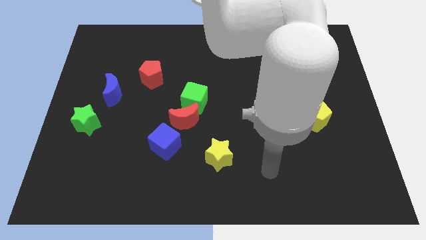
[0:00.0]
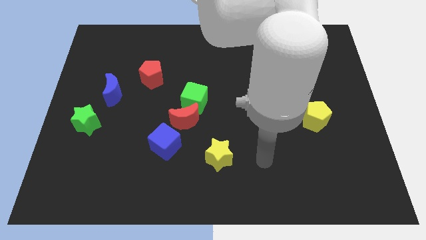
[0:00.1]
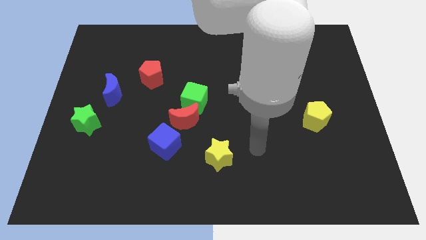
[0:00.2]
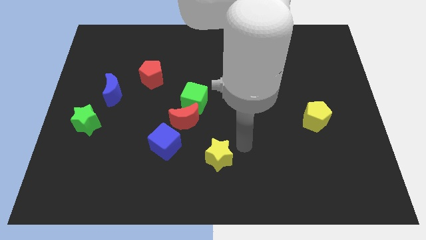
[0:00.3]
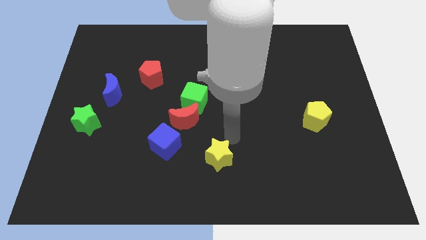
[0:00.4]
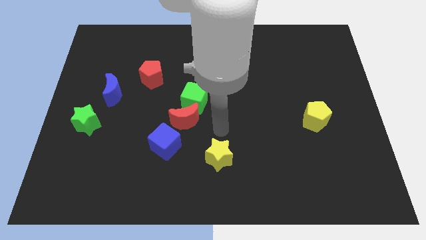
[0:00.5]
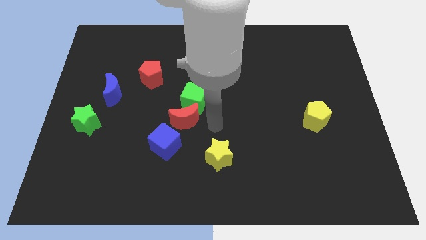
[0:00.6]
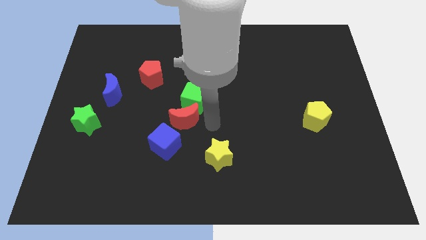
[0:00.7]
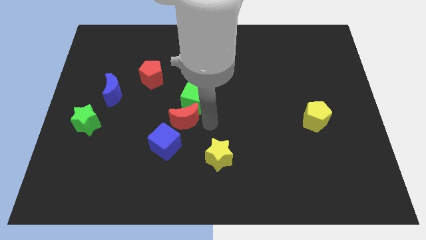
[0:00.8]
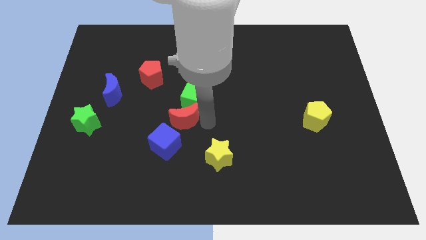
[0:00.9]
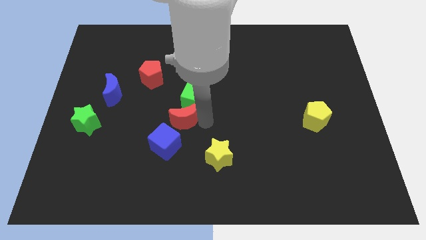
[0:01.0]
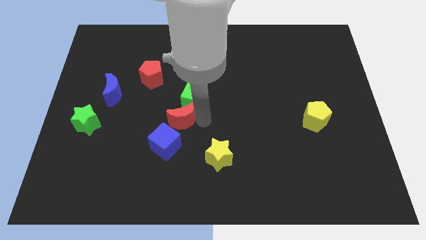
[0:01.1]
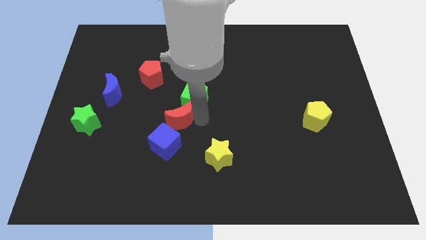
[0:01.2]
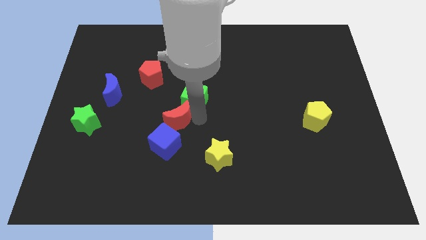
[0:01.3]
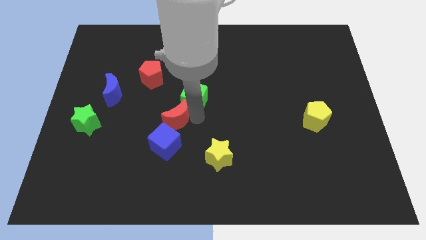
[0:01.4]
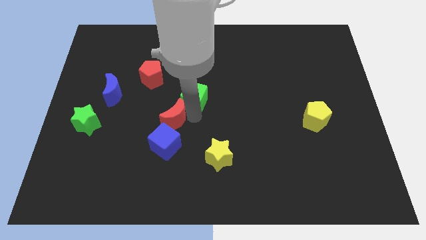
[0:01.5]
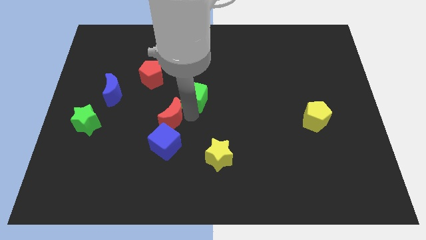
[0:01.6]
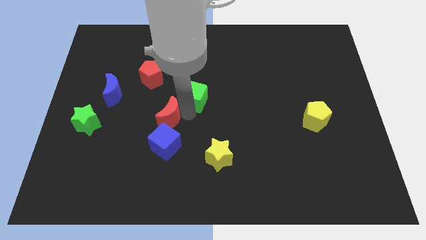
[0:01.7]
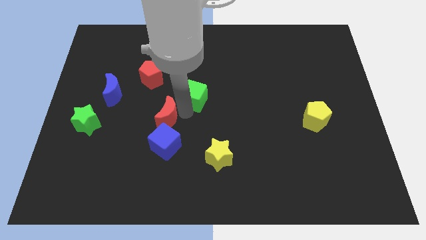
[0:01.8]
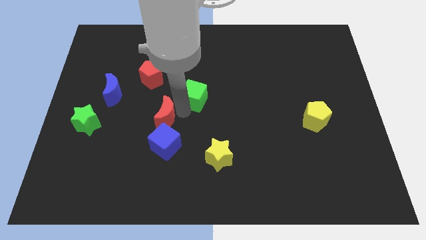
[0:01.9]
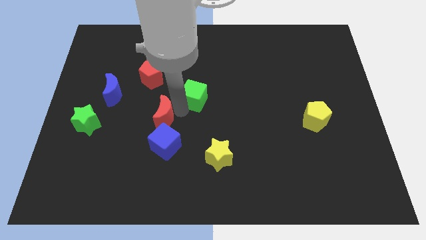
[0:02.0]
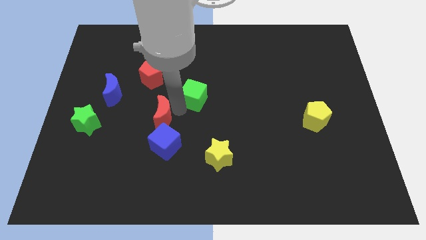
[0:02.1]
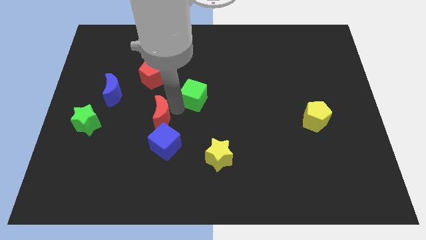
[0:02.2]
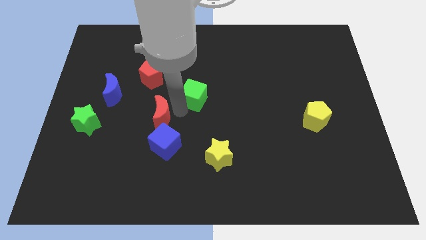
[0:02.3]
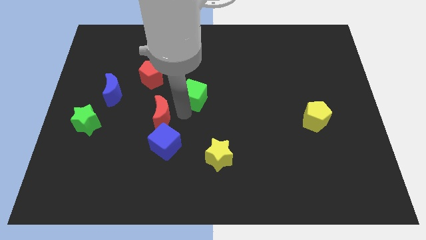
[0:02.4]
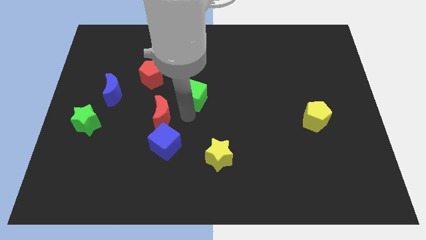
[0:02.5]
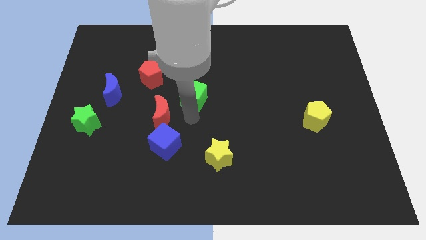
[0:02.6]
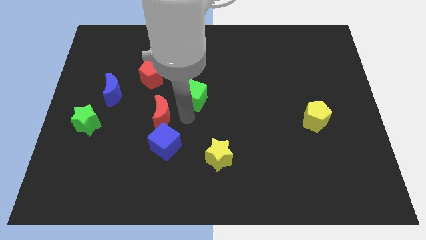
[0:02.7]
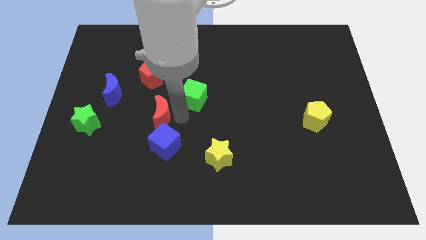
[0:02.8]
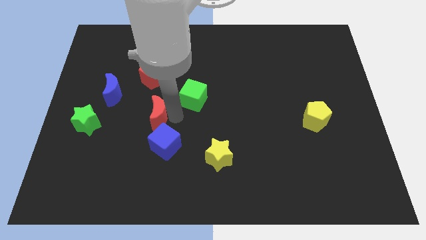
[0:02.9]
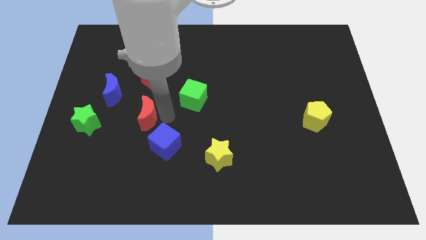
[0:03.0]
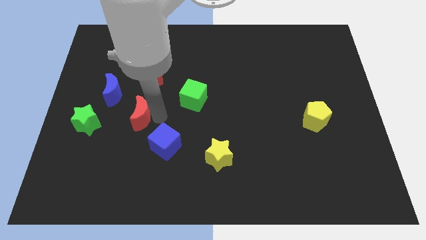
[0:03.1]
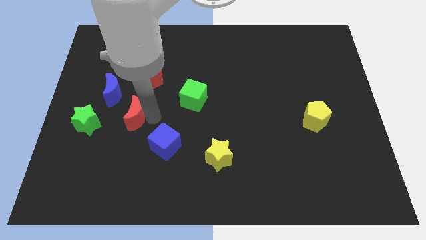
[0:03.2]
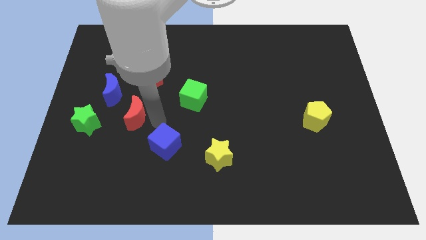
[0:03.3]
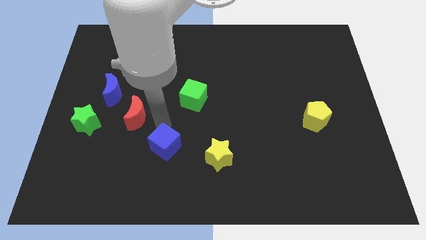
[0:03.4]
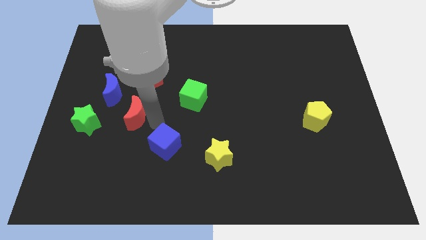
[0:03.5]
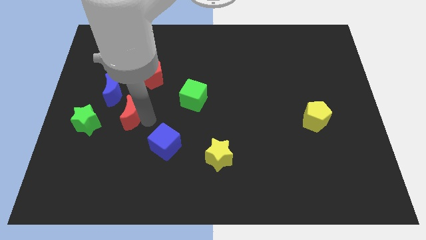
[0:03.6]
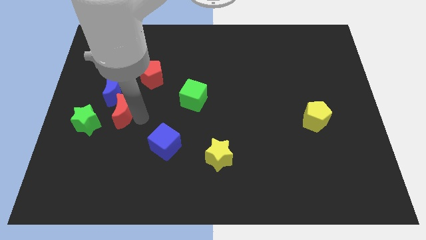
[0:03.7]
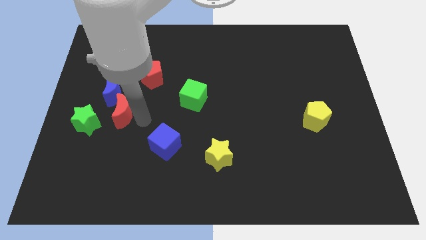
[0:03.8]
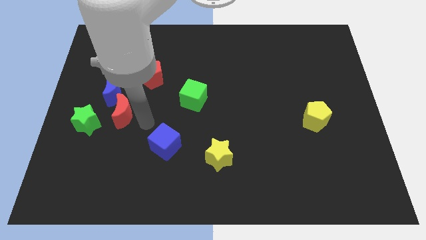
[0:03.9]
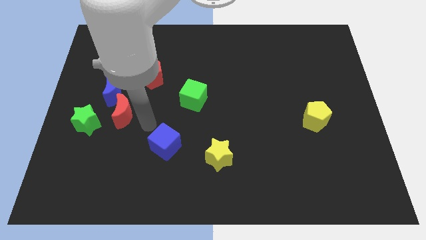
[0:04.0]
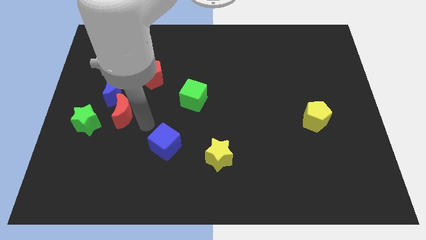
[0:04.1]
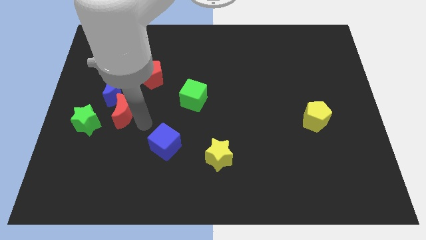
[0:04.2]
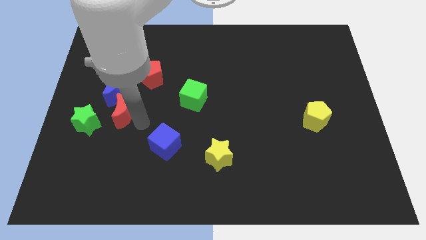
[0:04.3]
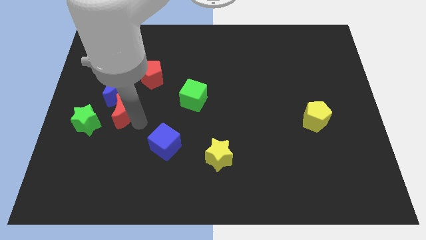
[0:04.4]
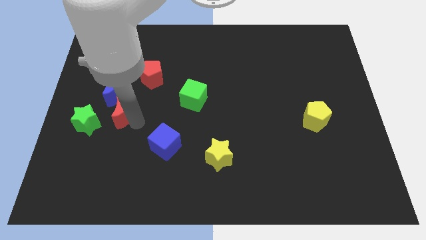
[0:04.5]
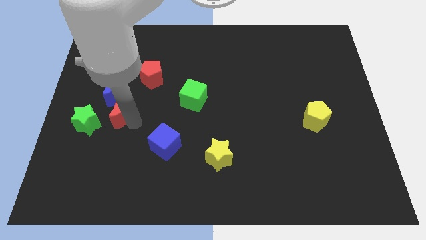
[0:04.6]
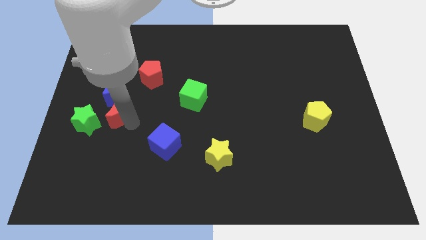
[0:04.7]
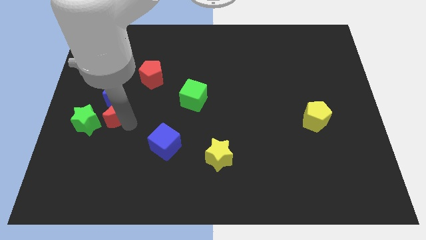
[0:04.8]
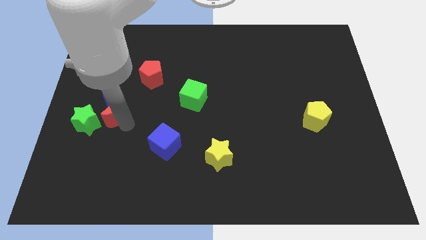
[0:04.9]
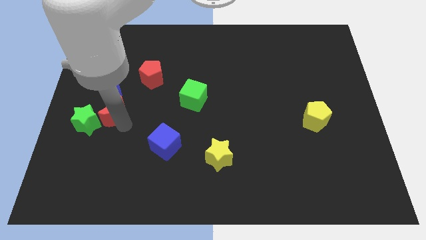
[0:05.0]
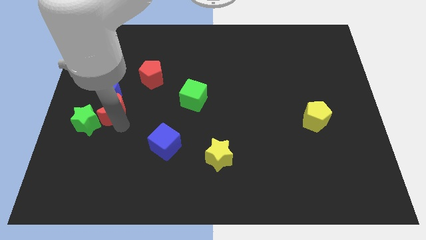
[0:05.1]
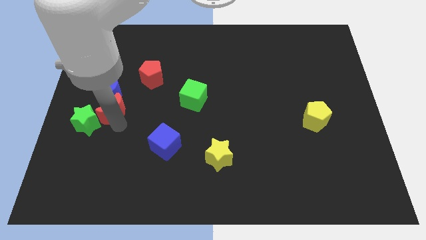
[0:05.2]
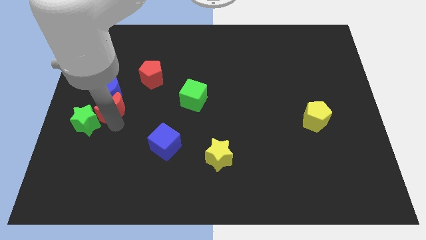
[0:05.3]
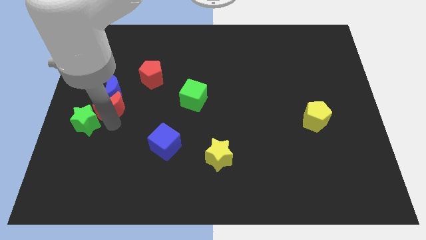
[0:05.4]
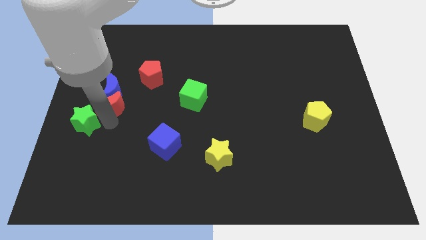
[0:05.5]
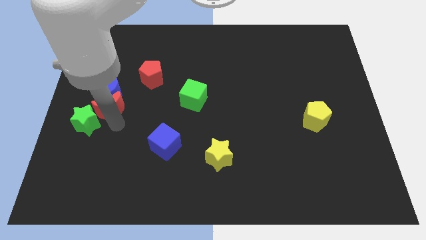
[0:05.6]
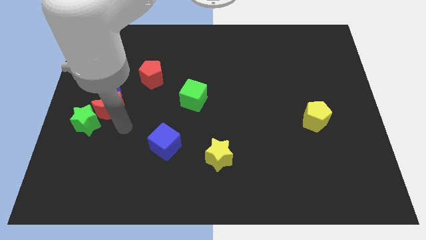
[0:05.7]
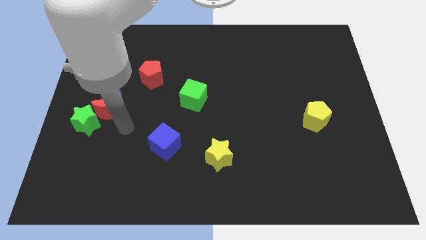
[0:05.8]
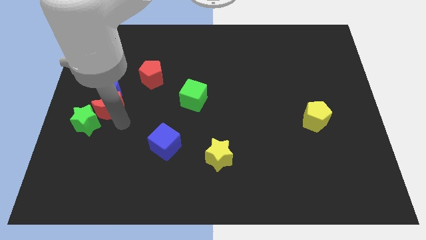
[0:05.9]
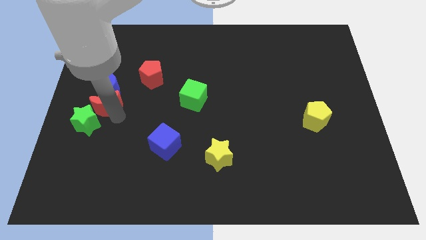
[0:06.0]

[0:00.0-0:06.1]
push the red moon to the top side of the green star

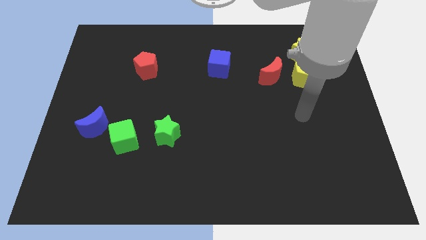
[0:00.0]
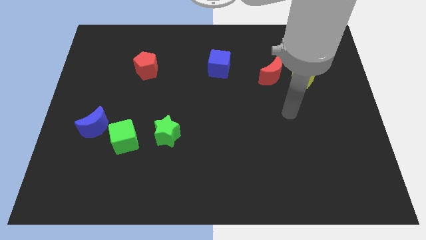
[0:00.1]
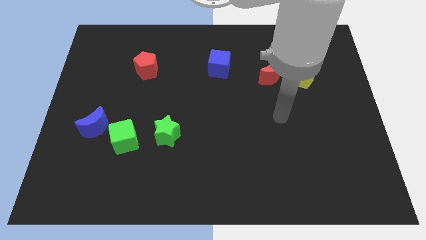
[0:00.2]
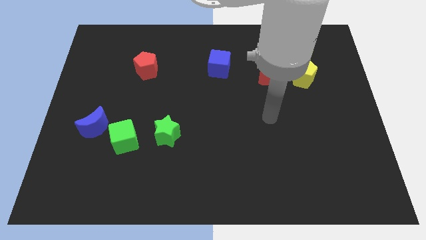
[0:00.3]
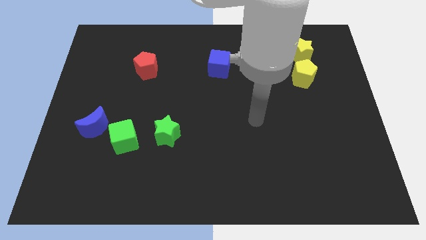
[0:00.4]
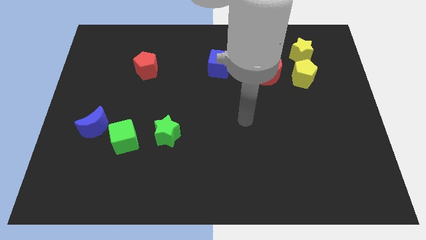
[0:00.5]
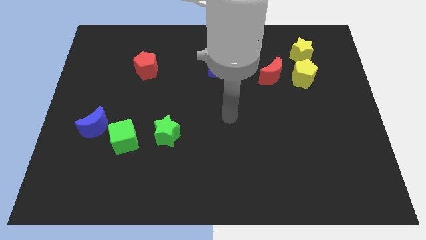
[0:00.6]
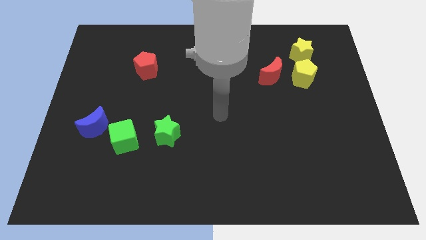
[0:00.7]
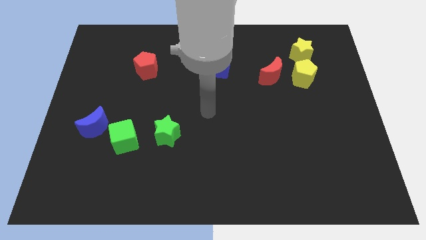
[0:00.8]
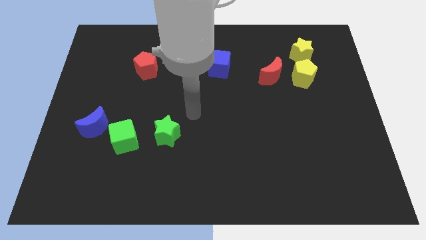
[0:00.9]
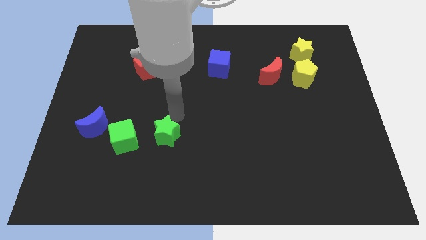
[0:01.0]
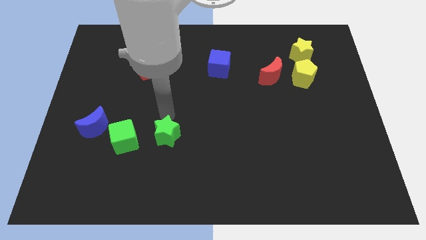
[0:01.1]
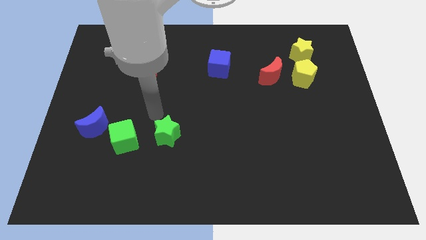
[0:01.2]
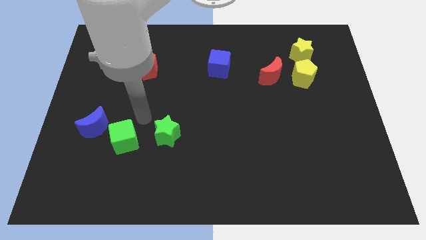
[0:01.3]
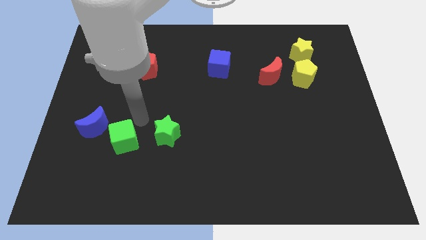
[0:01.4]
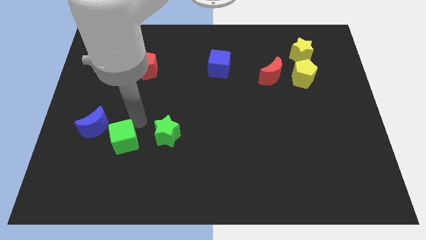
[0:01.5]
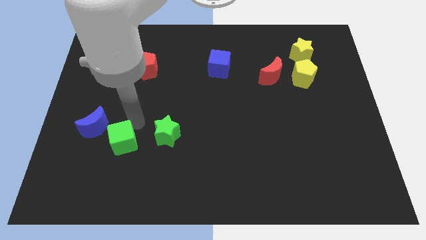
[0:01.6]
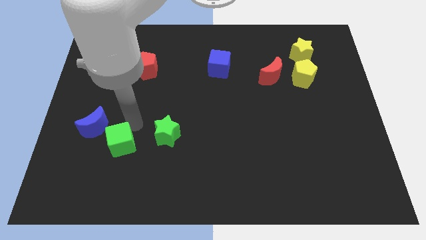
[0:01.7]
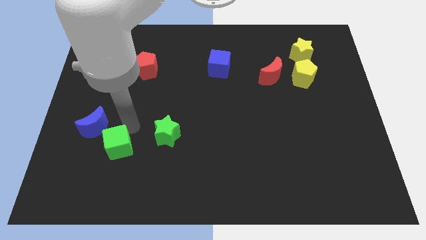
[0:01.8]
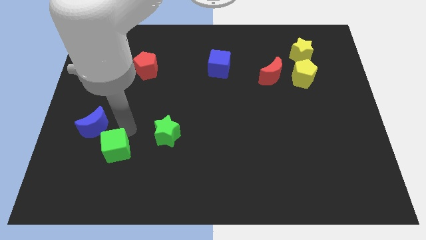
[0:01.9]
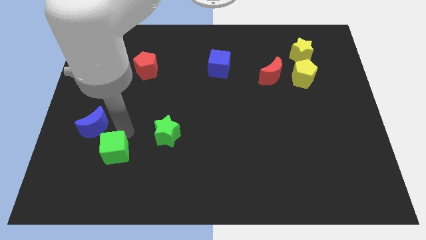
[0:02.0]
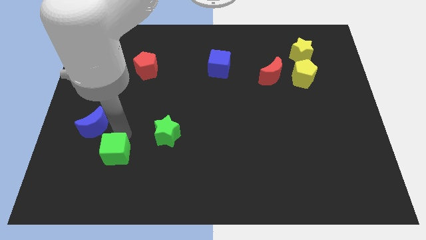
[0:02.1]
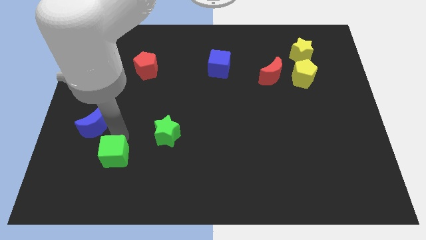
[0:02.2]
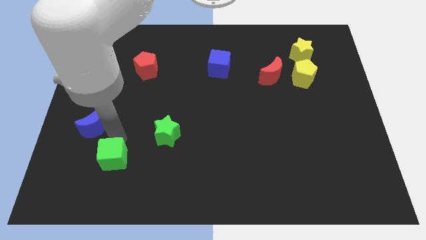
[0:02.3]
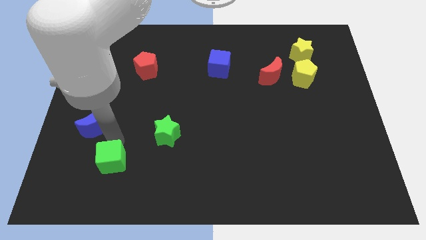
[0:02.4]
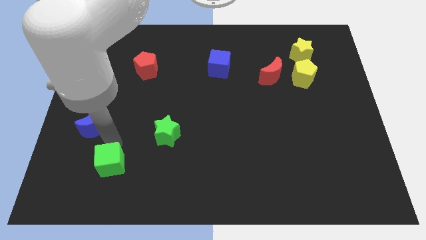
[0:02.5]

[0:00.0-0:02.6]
push the green cube below the blue moon
